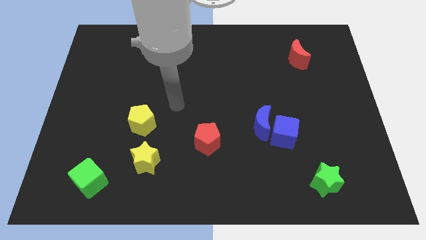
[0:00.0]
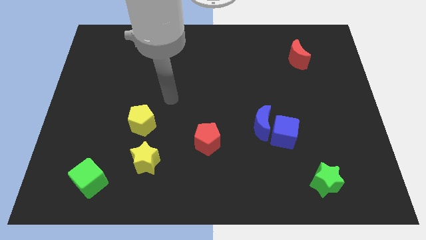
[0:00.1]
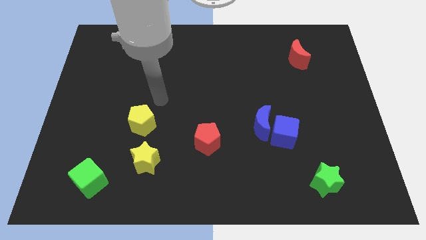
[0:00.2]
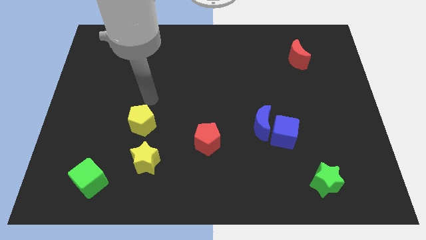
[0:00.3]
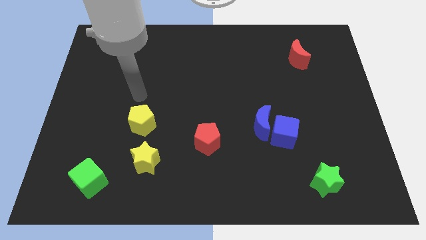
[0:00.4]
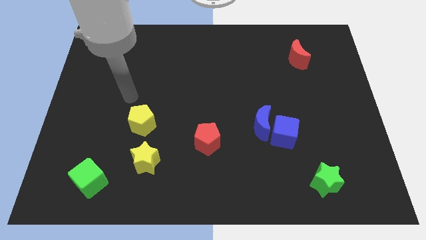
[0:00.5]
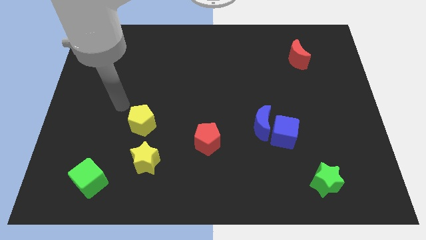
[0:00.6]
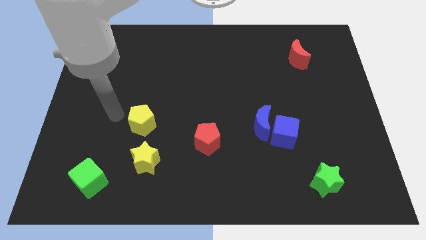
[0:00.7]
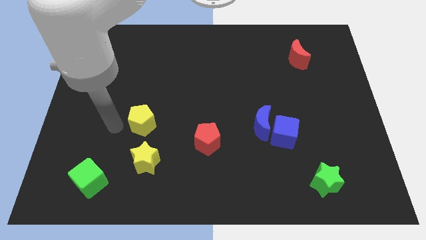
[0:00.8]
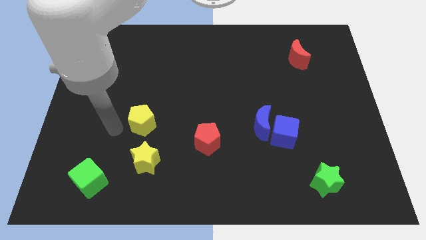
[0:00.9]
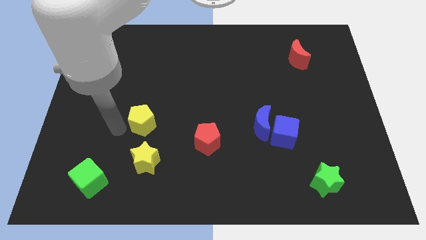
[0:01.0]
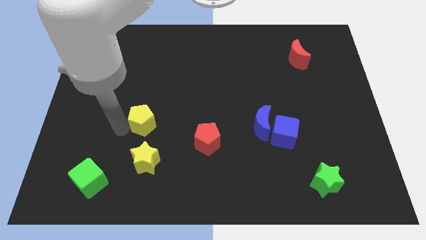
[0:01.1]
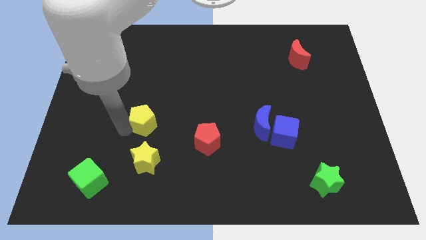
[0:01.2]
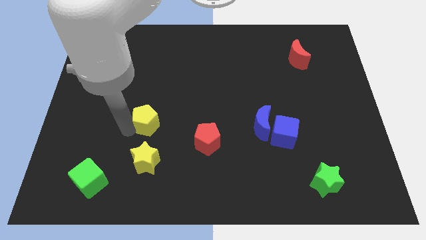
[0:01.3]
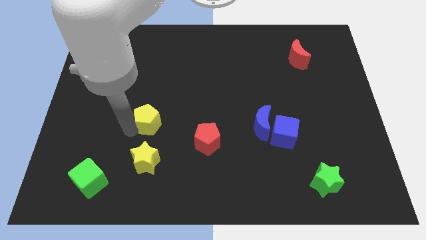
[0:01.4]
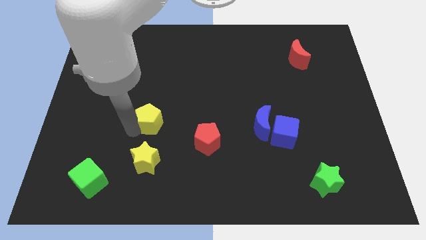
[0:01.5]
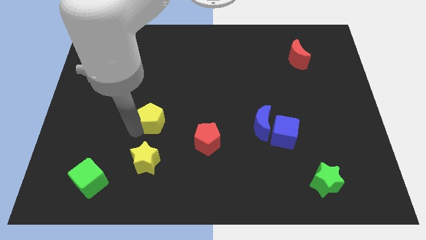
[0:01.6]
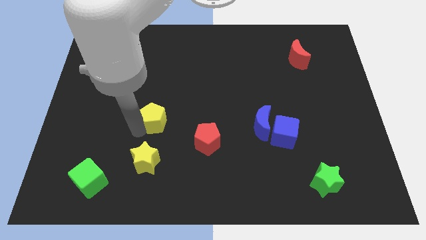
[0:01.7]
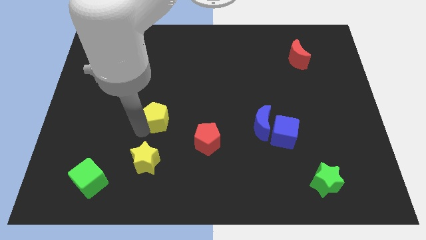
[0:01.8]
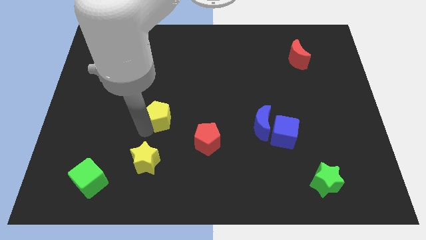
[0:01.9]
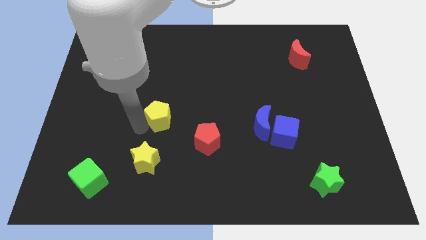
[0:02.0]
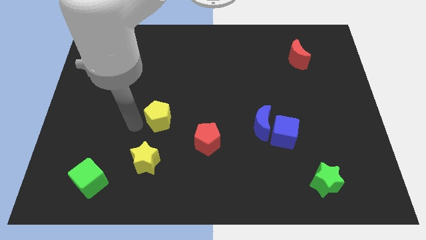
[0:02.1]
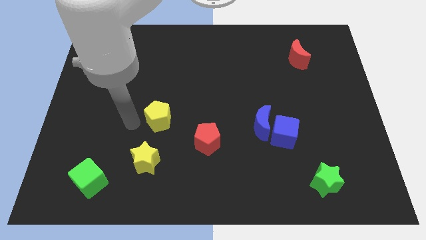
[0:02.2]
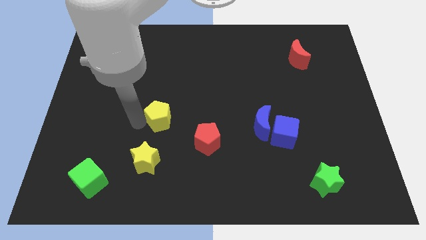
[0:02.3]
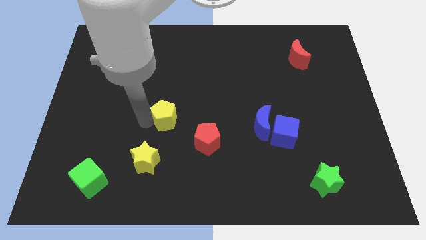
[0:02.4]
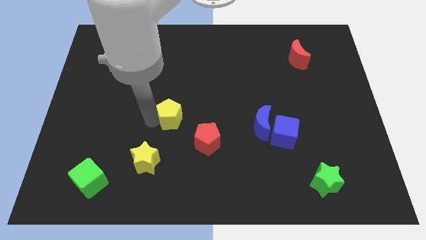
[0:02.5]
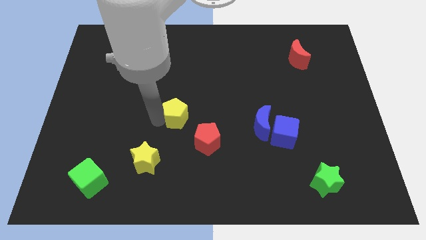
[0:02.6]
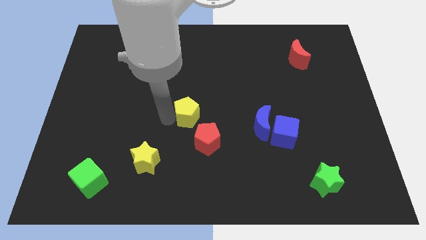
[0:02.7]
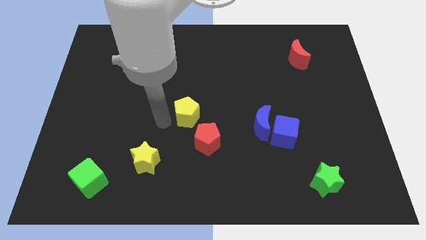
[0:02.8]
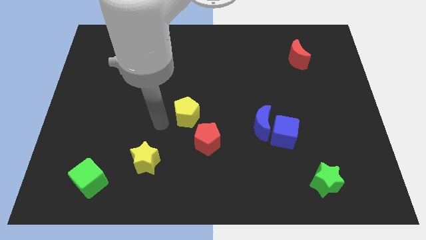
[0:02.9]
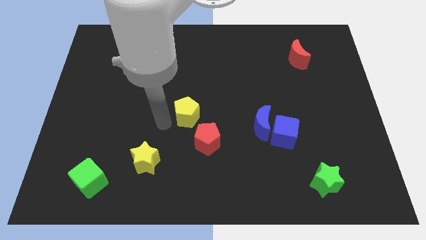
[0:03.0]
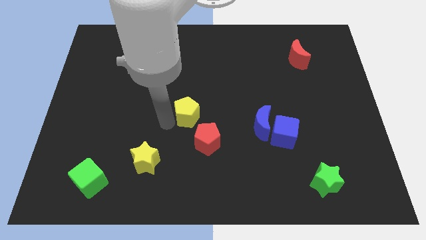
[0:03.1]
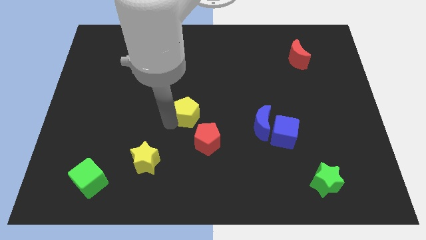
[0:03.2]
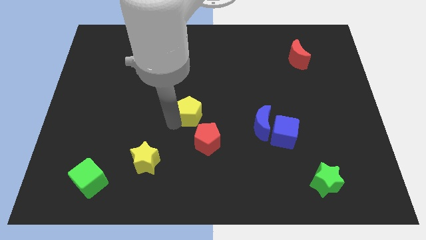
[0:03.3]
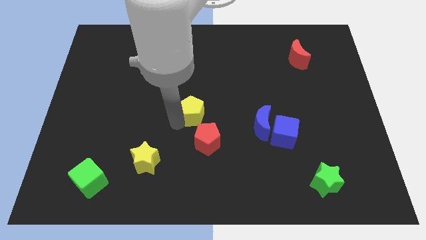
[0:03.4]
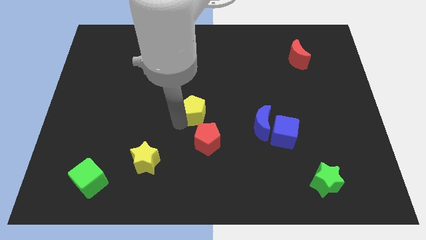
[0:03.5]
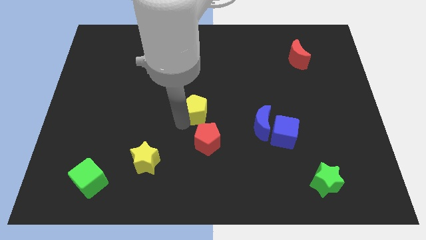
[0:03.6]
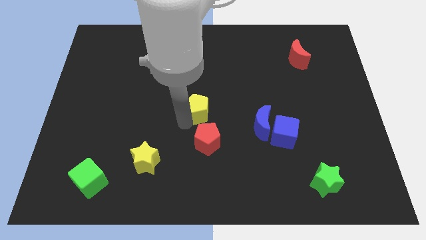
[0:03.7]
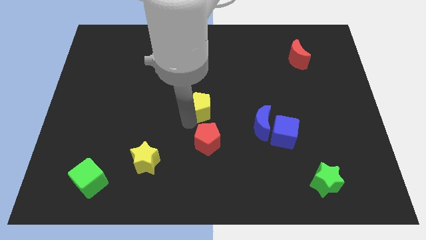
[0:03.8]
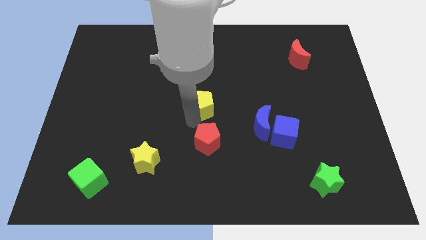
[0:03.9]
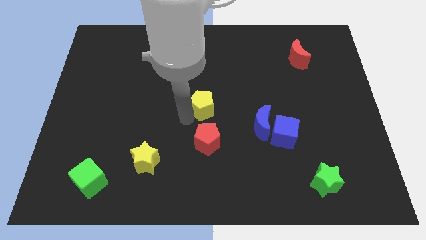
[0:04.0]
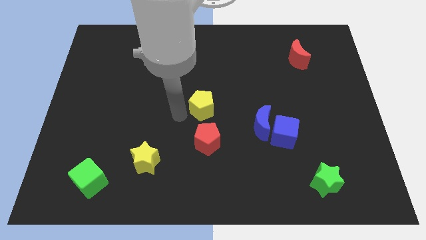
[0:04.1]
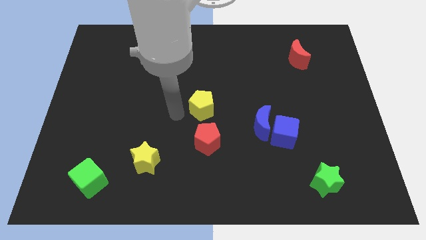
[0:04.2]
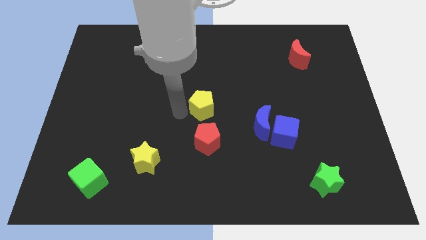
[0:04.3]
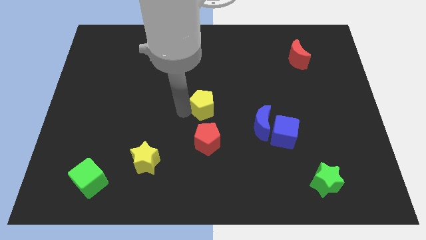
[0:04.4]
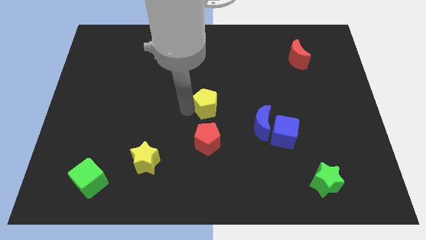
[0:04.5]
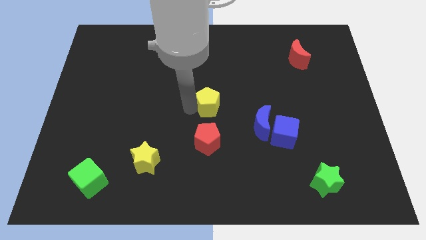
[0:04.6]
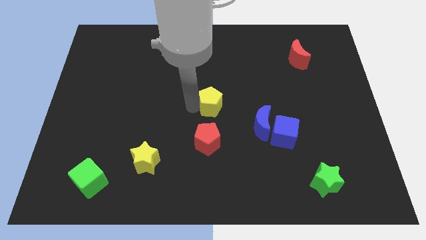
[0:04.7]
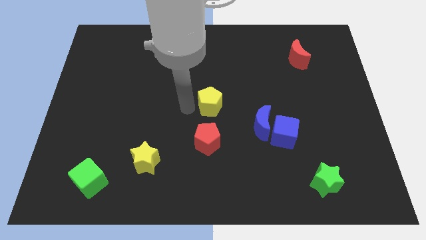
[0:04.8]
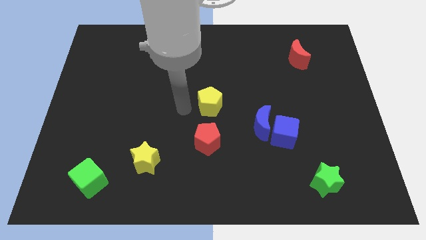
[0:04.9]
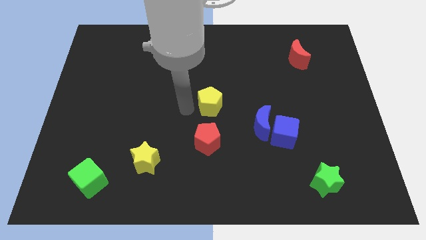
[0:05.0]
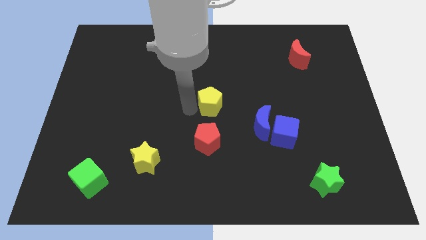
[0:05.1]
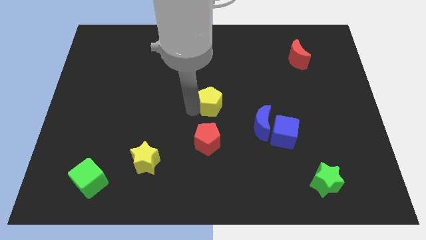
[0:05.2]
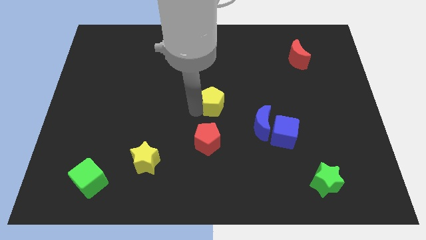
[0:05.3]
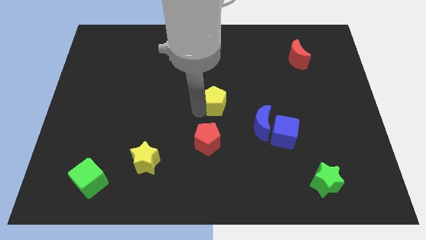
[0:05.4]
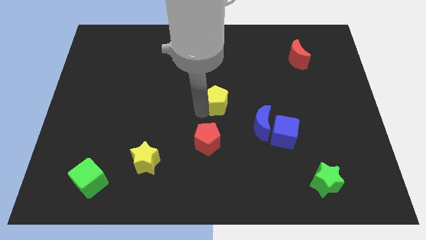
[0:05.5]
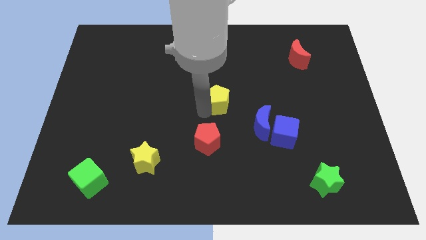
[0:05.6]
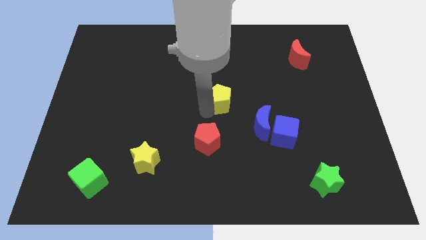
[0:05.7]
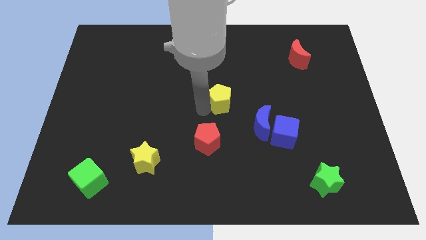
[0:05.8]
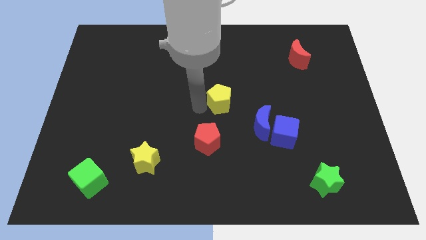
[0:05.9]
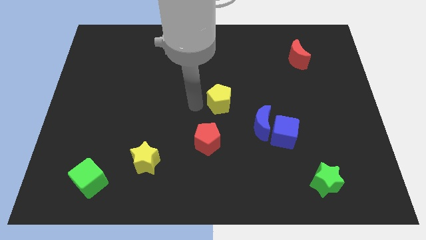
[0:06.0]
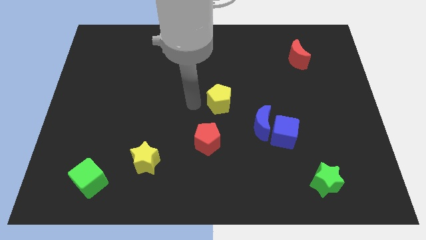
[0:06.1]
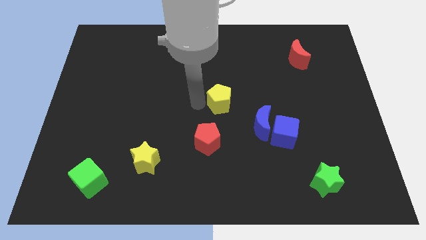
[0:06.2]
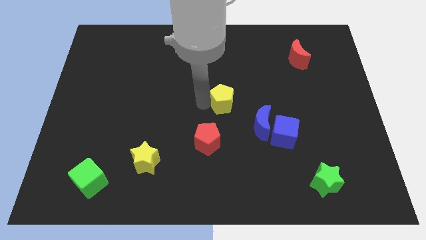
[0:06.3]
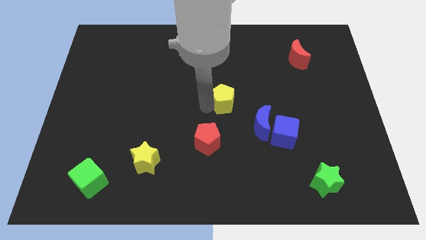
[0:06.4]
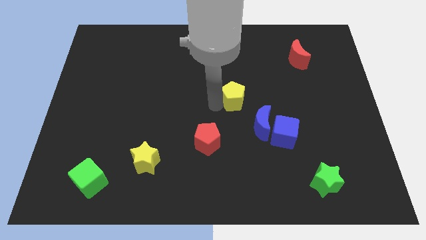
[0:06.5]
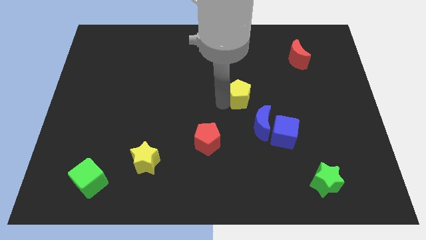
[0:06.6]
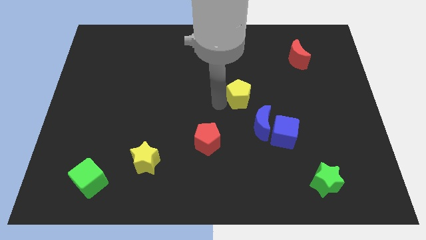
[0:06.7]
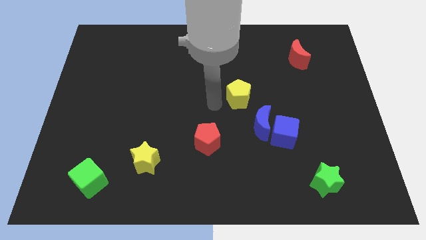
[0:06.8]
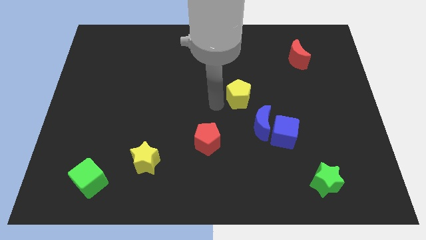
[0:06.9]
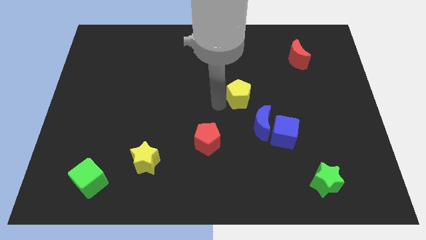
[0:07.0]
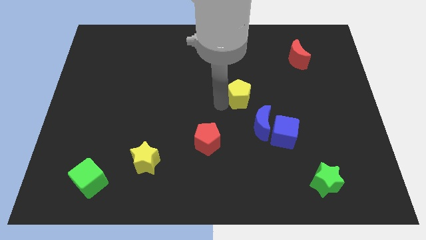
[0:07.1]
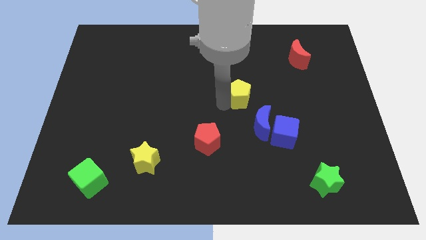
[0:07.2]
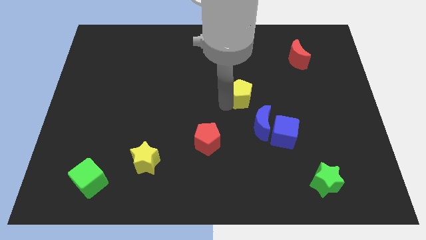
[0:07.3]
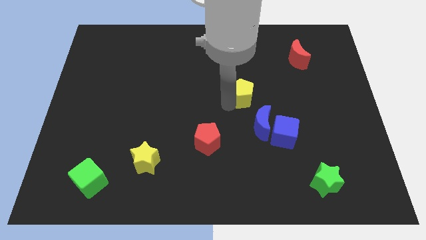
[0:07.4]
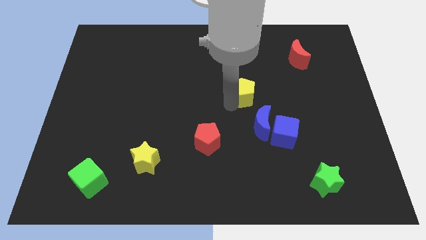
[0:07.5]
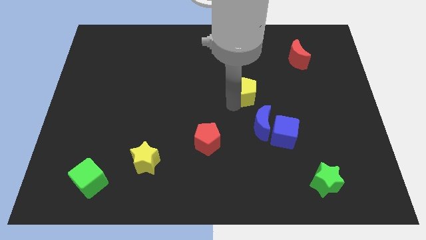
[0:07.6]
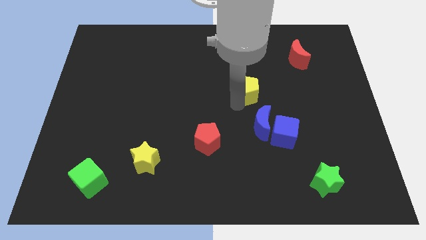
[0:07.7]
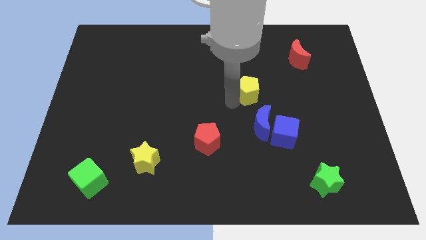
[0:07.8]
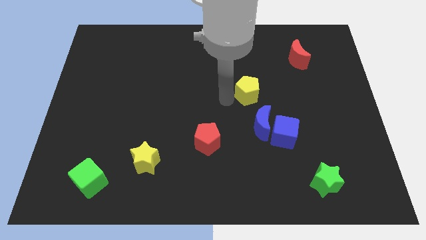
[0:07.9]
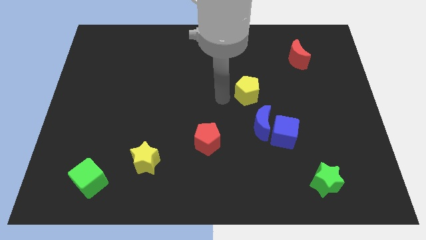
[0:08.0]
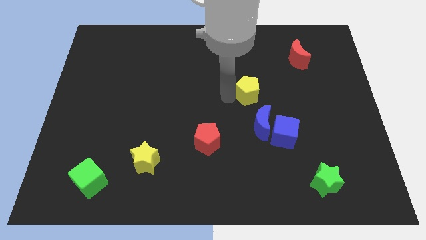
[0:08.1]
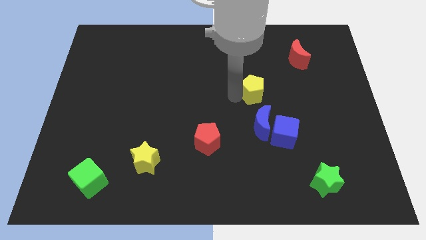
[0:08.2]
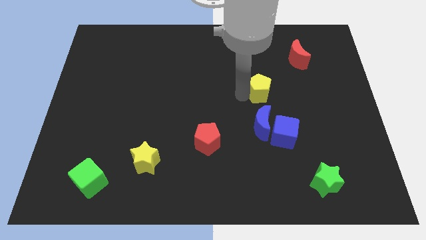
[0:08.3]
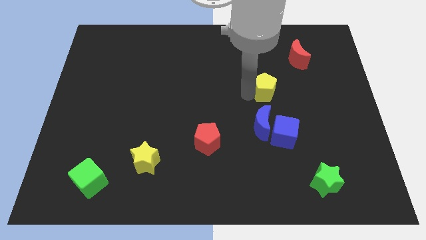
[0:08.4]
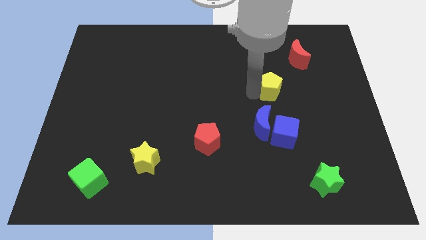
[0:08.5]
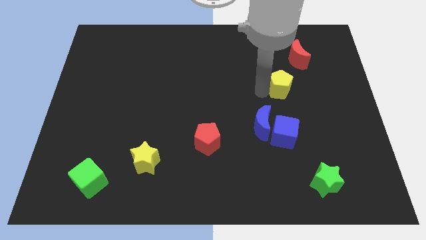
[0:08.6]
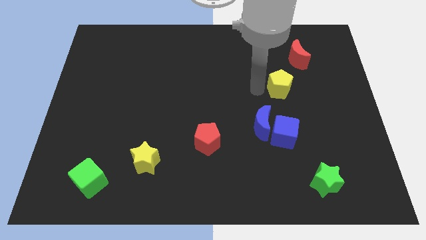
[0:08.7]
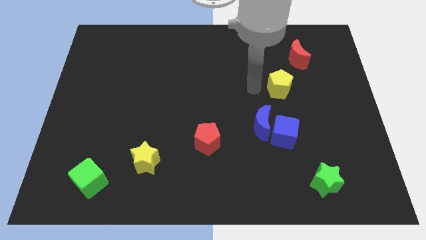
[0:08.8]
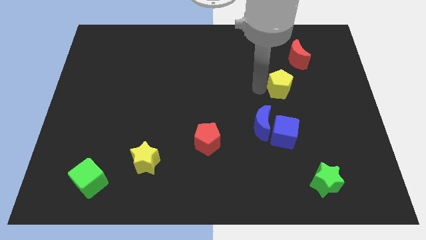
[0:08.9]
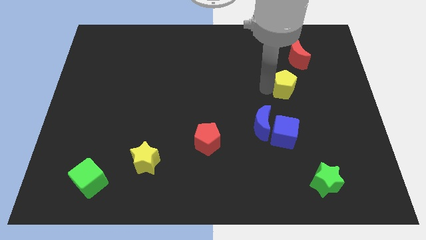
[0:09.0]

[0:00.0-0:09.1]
slide the yellow pentagon below the red moon
